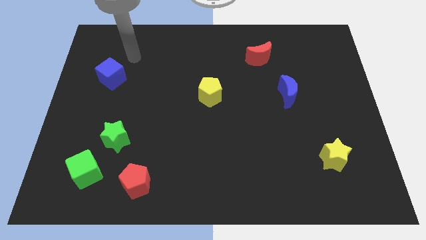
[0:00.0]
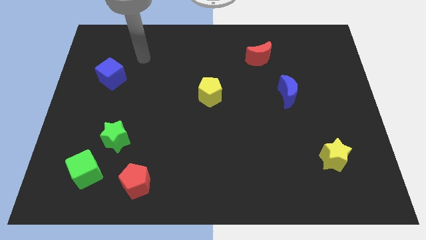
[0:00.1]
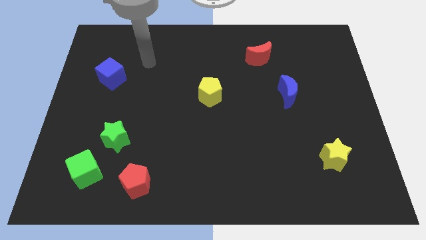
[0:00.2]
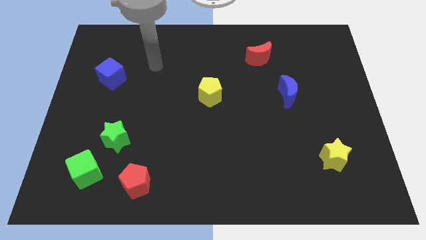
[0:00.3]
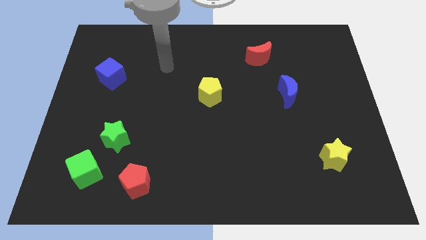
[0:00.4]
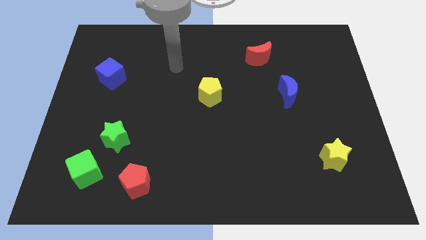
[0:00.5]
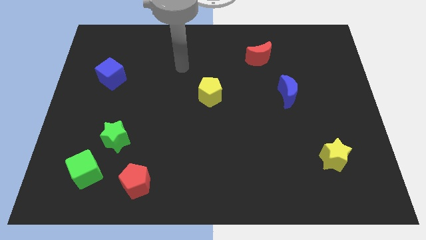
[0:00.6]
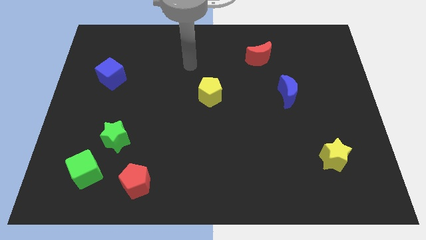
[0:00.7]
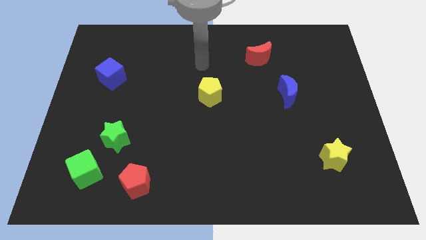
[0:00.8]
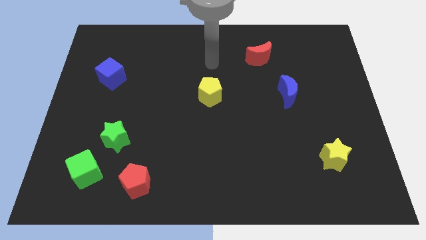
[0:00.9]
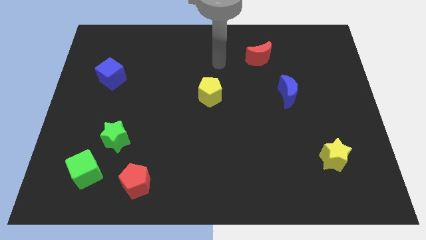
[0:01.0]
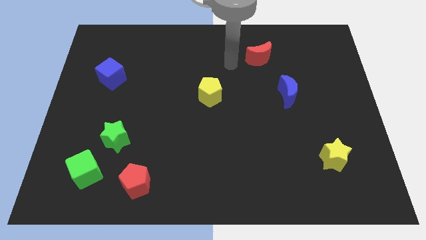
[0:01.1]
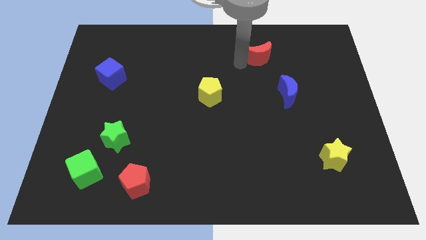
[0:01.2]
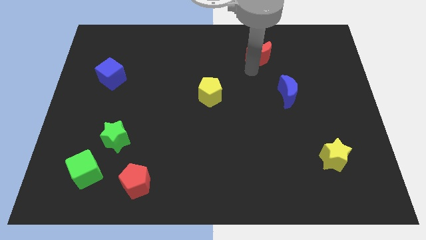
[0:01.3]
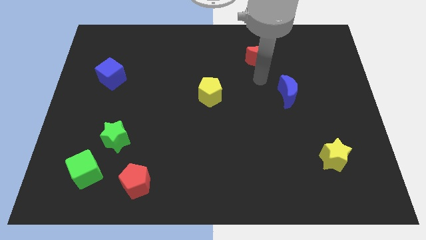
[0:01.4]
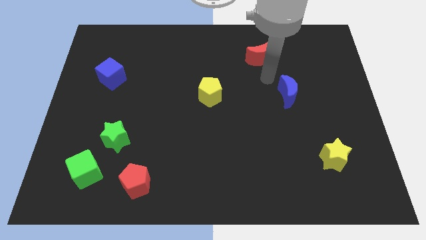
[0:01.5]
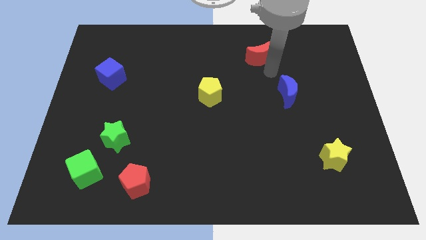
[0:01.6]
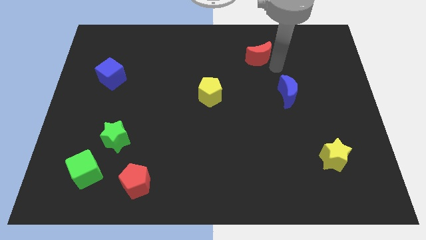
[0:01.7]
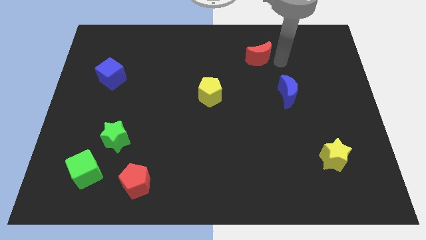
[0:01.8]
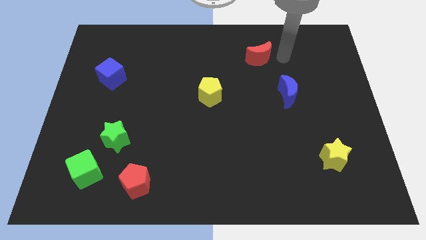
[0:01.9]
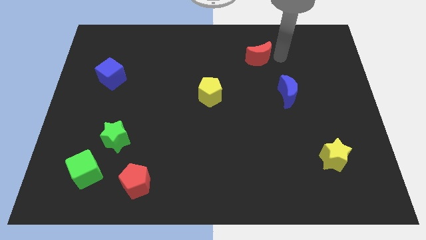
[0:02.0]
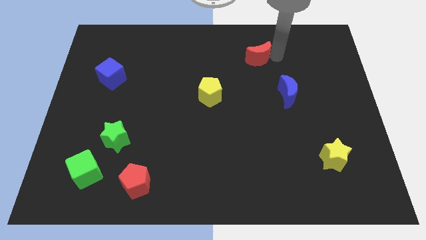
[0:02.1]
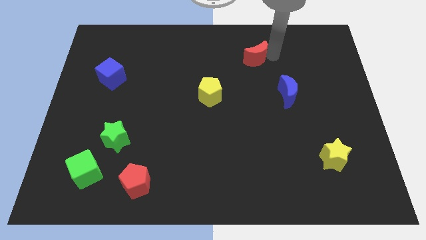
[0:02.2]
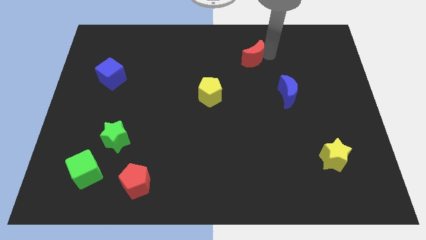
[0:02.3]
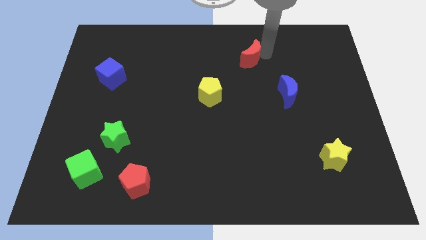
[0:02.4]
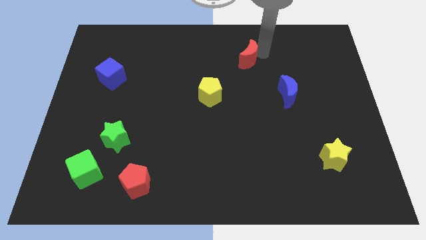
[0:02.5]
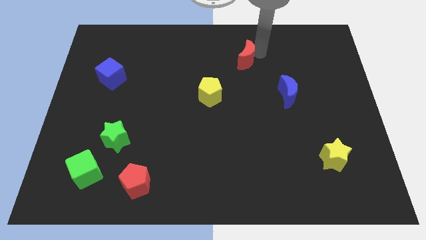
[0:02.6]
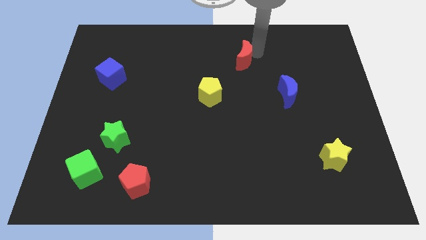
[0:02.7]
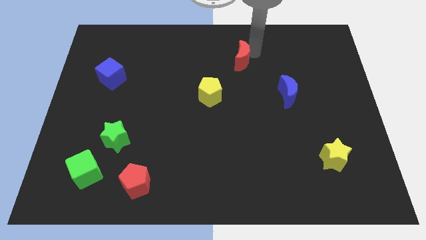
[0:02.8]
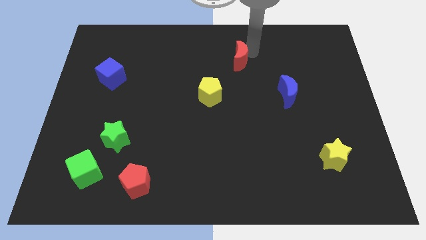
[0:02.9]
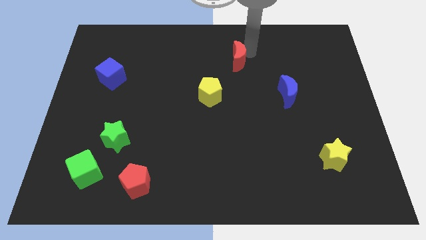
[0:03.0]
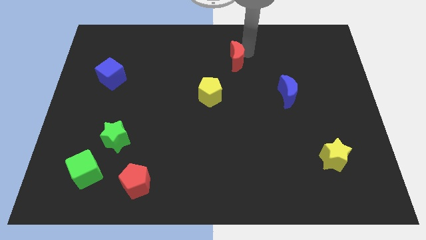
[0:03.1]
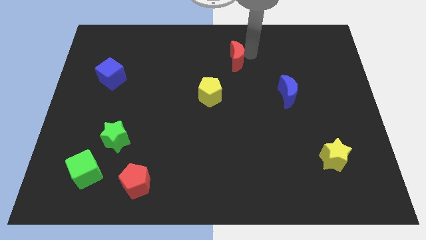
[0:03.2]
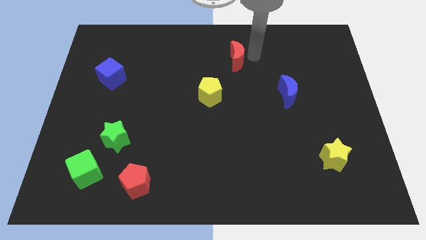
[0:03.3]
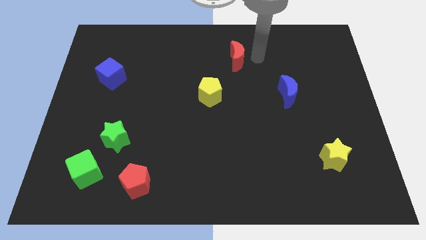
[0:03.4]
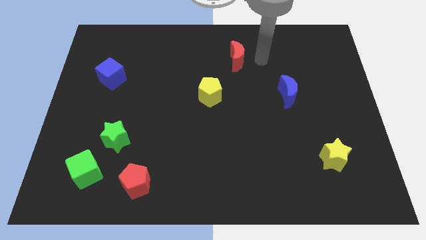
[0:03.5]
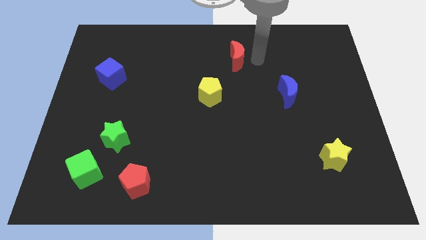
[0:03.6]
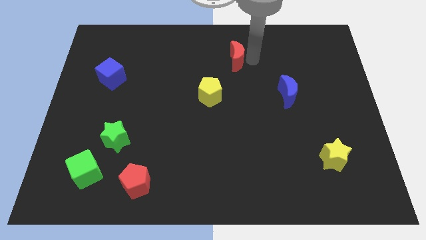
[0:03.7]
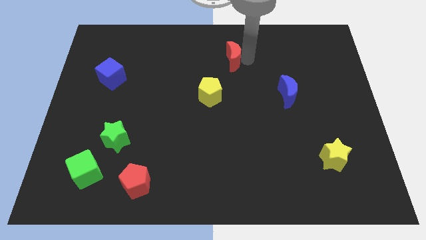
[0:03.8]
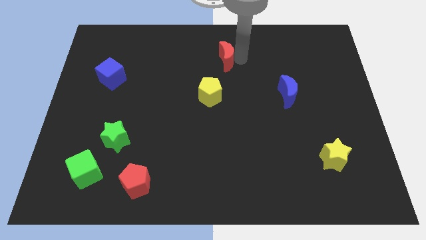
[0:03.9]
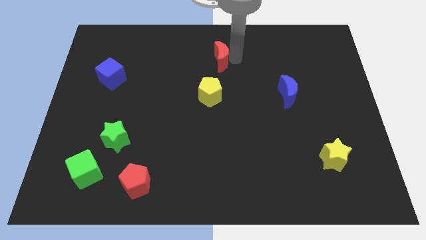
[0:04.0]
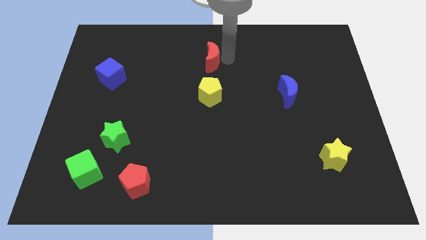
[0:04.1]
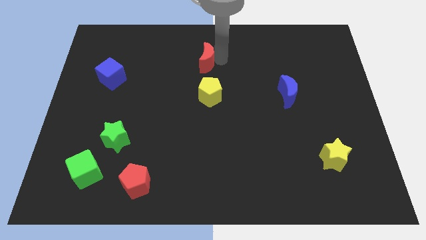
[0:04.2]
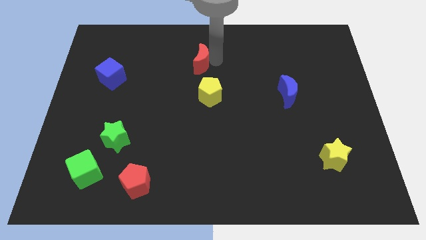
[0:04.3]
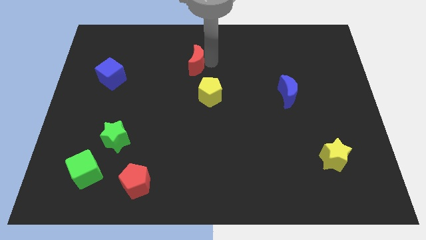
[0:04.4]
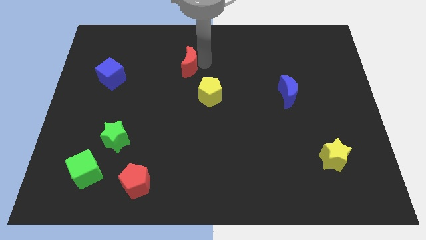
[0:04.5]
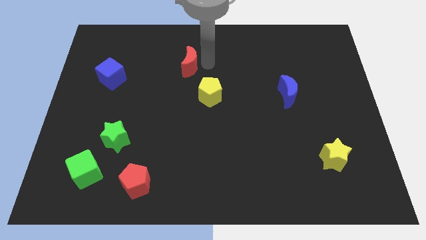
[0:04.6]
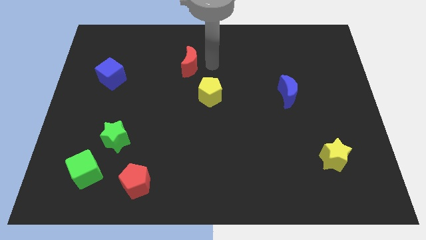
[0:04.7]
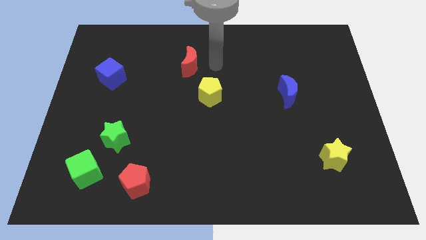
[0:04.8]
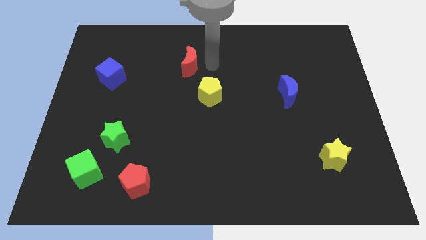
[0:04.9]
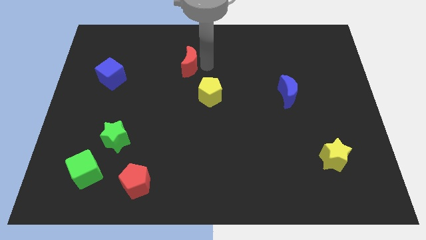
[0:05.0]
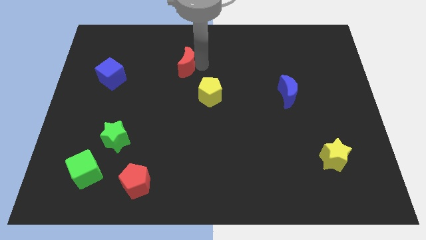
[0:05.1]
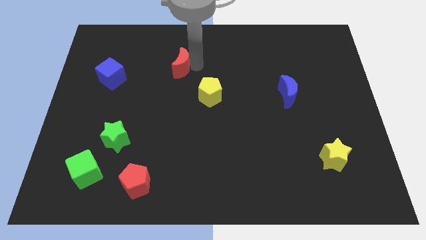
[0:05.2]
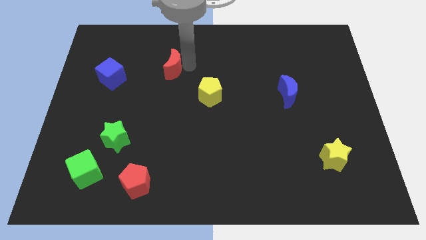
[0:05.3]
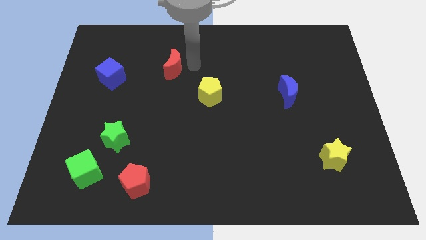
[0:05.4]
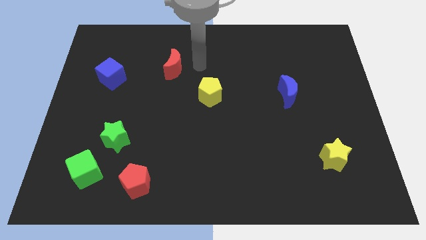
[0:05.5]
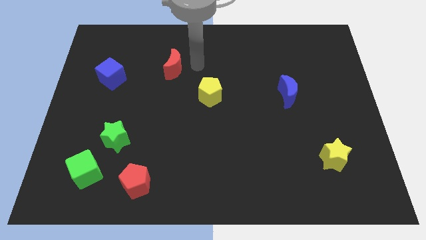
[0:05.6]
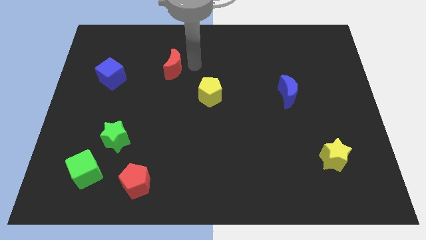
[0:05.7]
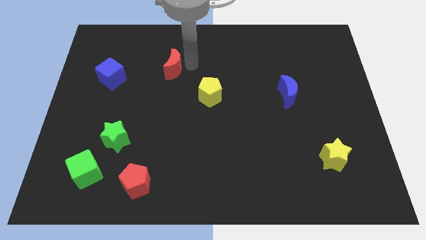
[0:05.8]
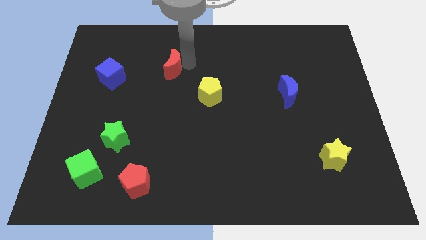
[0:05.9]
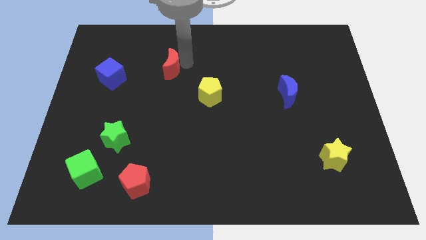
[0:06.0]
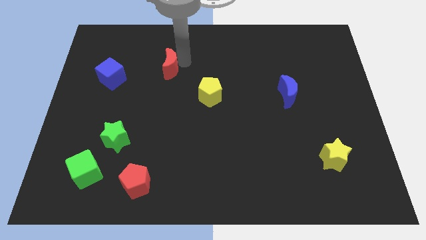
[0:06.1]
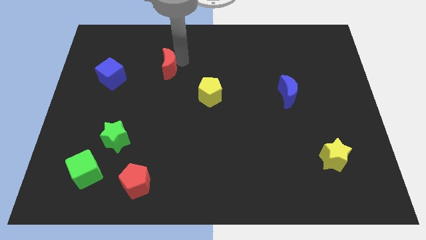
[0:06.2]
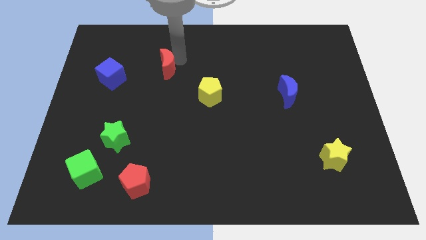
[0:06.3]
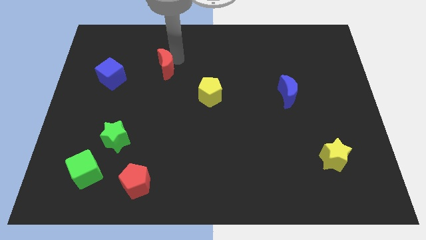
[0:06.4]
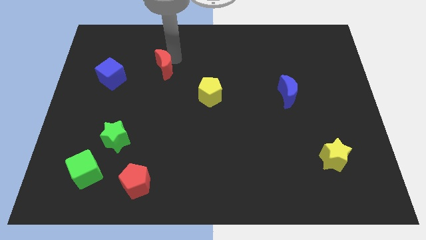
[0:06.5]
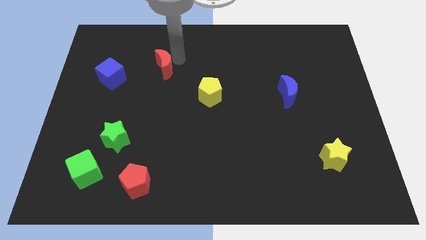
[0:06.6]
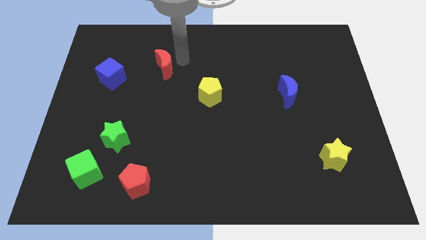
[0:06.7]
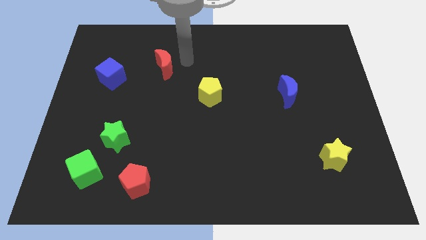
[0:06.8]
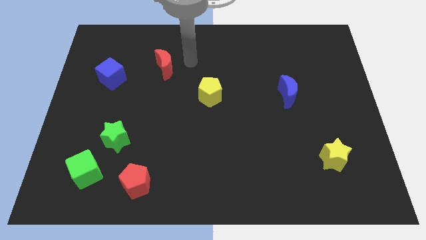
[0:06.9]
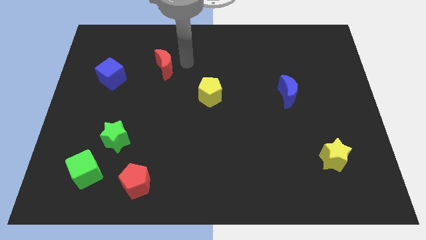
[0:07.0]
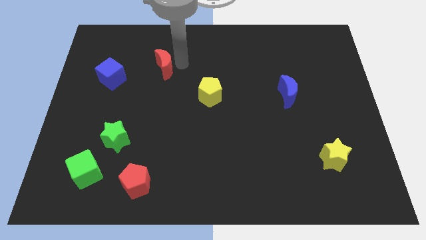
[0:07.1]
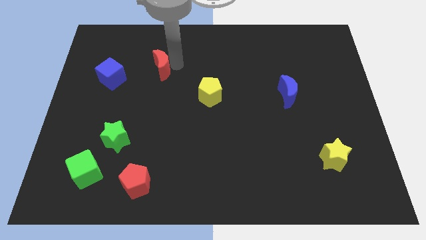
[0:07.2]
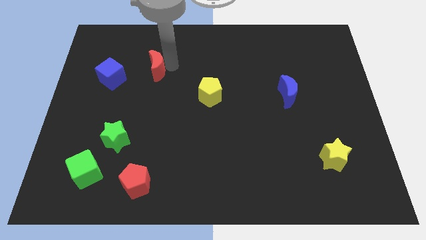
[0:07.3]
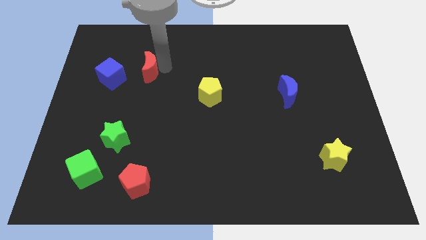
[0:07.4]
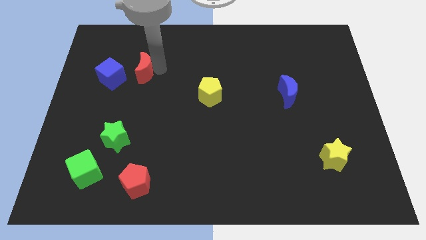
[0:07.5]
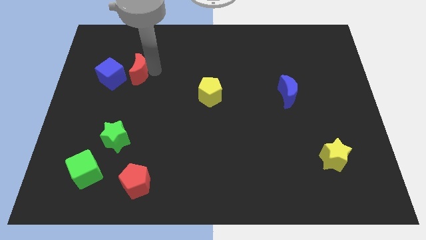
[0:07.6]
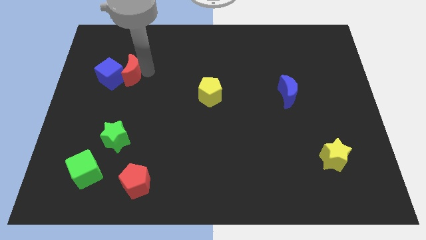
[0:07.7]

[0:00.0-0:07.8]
push the red moon close to the blue cube
